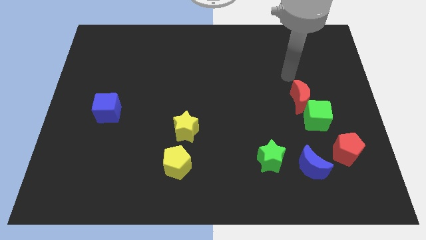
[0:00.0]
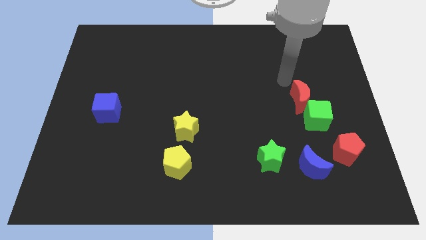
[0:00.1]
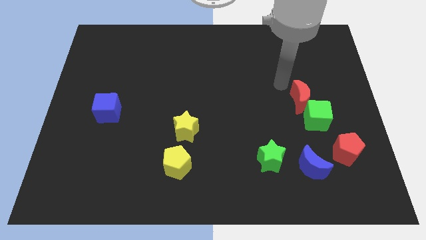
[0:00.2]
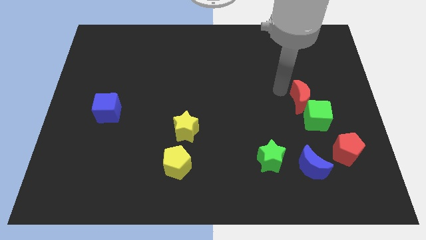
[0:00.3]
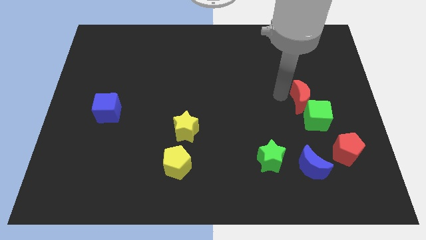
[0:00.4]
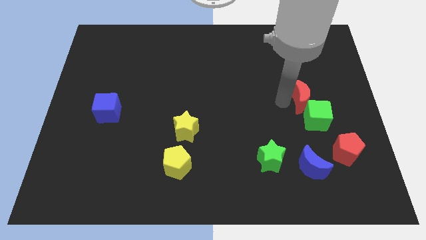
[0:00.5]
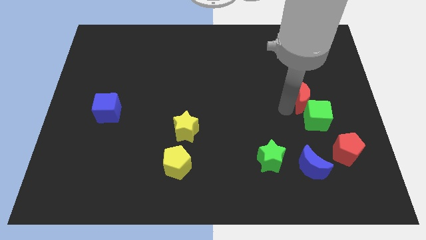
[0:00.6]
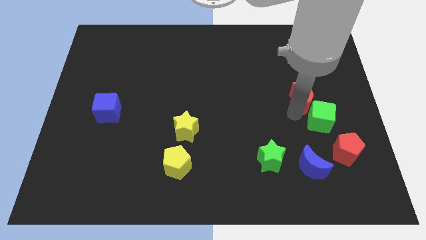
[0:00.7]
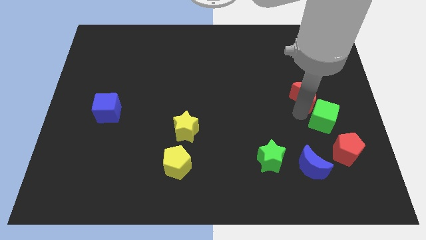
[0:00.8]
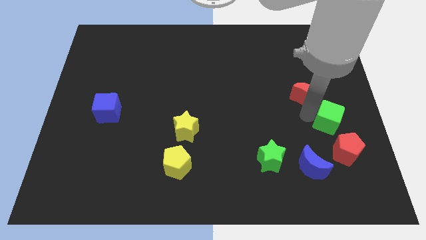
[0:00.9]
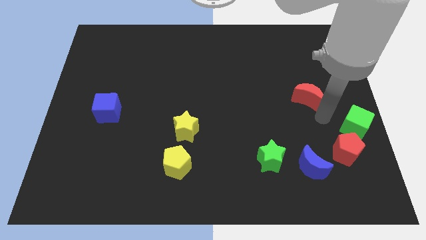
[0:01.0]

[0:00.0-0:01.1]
move the red moon away from the green cube

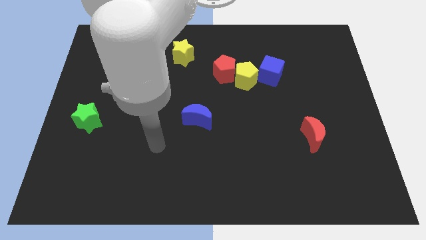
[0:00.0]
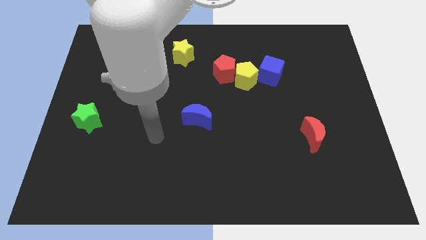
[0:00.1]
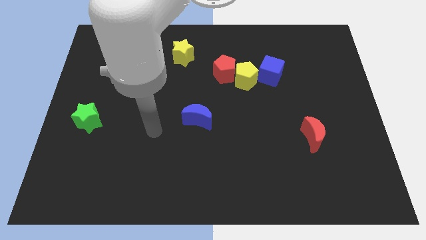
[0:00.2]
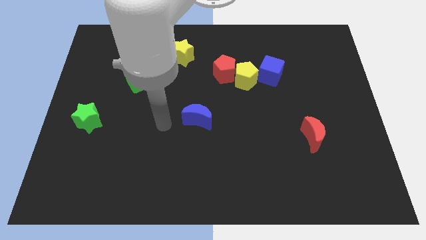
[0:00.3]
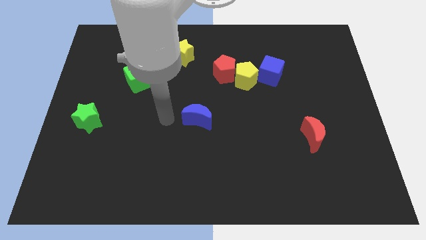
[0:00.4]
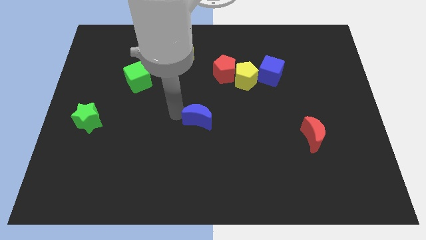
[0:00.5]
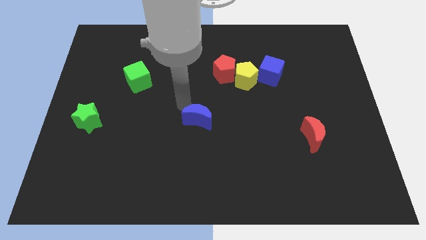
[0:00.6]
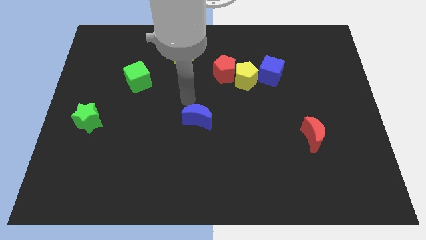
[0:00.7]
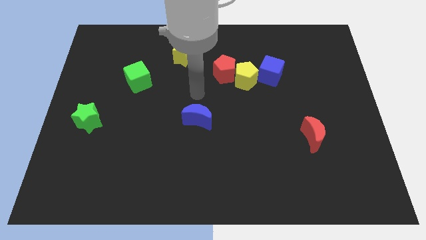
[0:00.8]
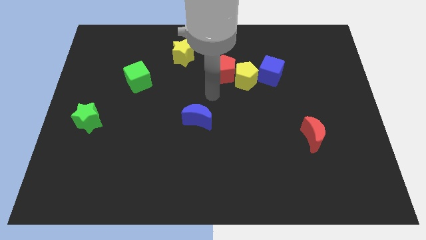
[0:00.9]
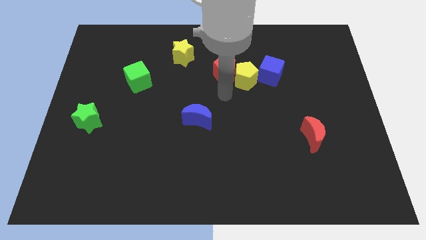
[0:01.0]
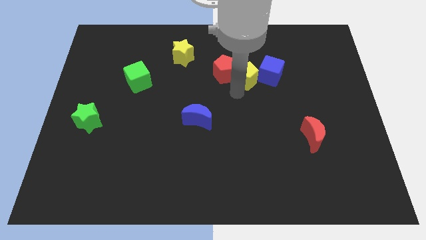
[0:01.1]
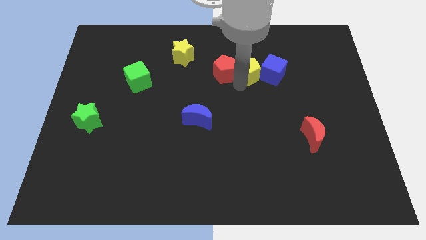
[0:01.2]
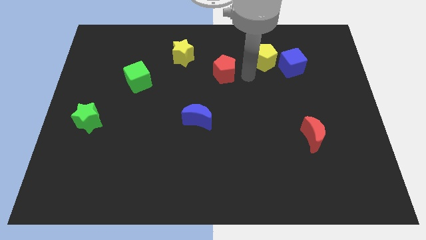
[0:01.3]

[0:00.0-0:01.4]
pull the red pentagon apart from the yellow pentagon

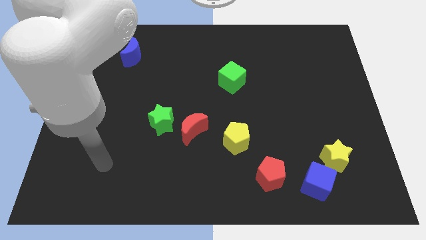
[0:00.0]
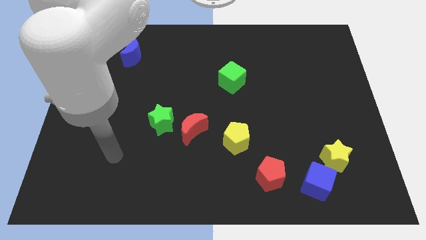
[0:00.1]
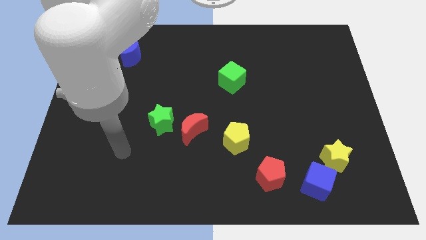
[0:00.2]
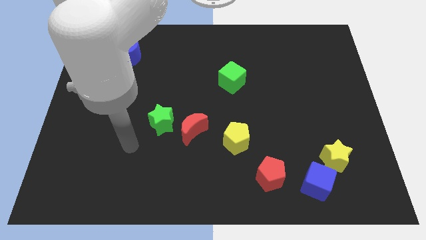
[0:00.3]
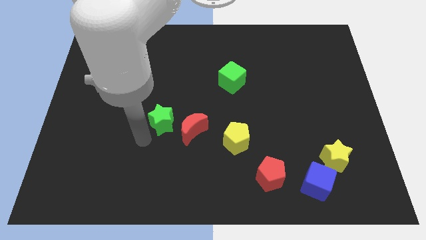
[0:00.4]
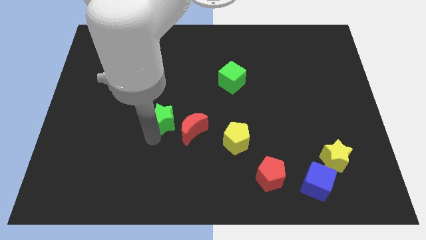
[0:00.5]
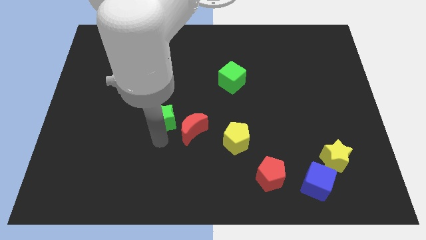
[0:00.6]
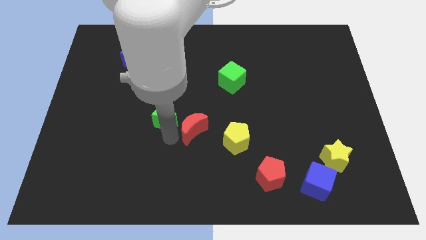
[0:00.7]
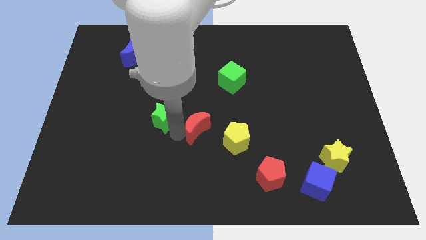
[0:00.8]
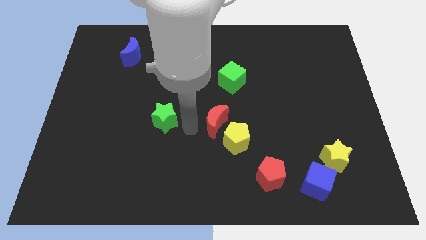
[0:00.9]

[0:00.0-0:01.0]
pull the green star apart from the red moon

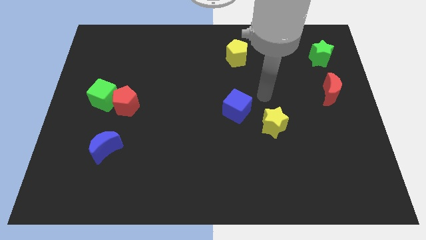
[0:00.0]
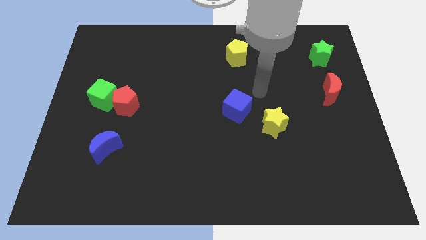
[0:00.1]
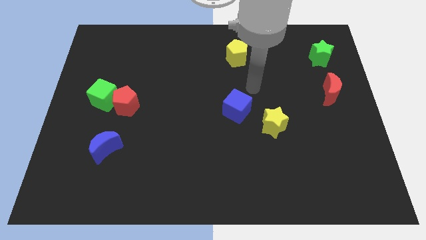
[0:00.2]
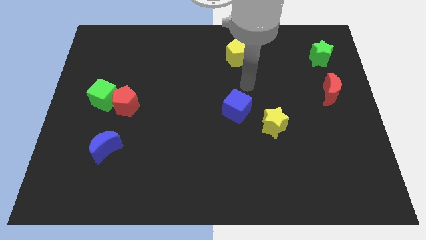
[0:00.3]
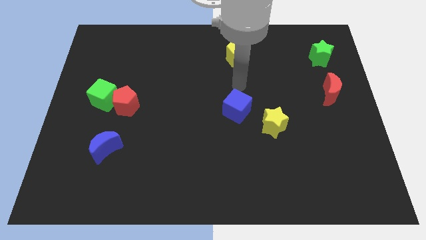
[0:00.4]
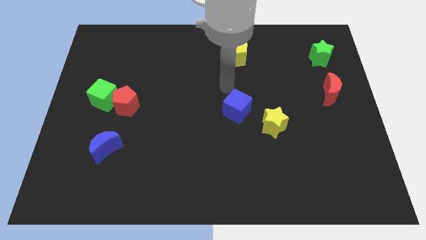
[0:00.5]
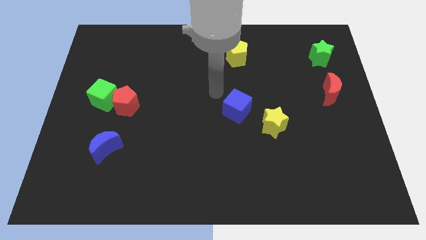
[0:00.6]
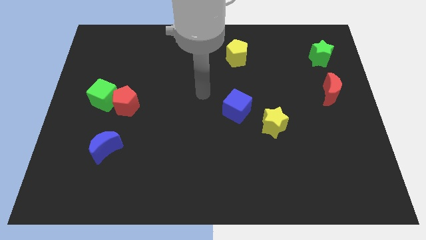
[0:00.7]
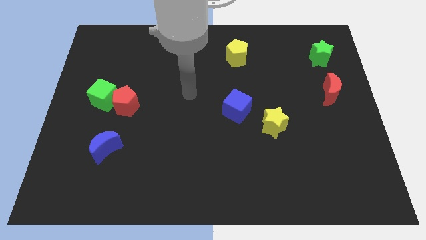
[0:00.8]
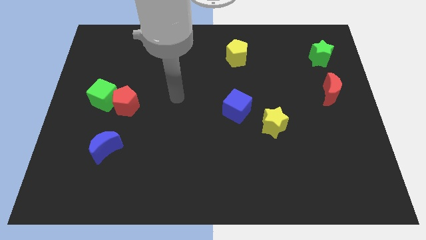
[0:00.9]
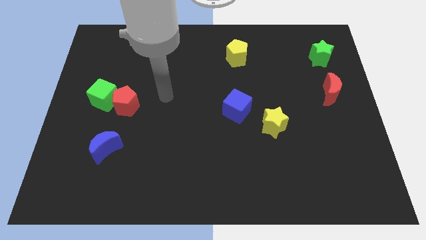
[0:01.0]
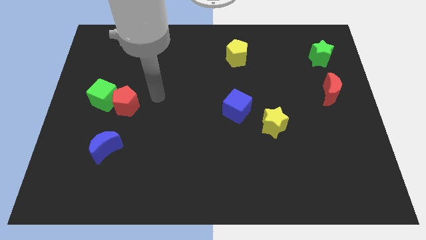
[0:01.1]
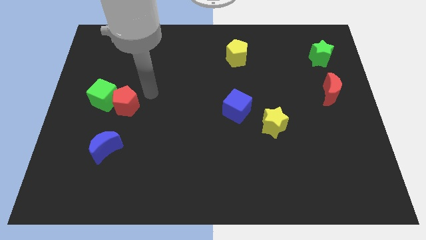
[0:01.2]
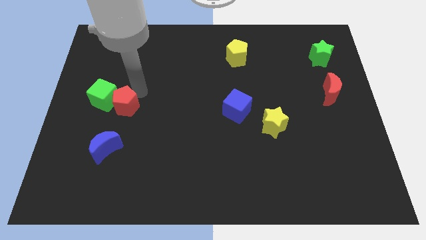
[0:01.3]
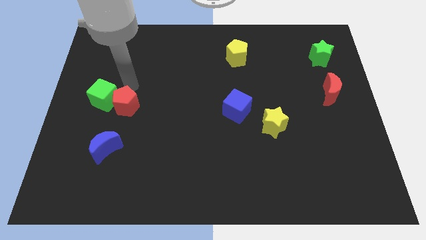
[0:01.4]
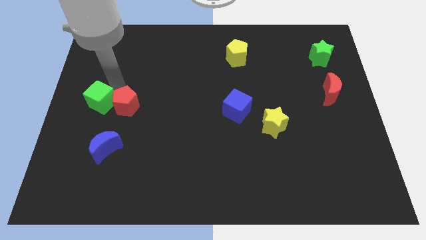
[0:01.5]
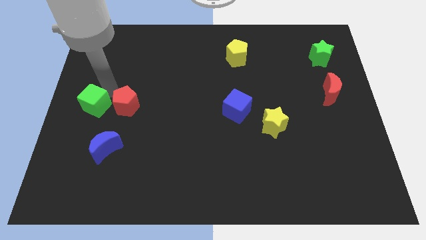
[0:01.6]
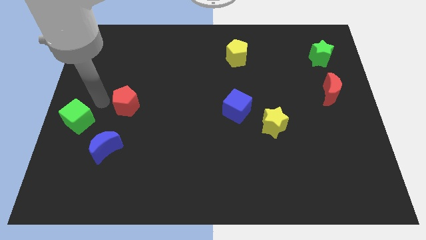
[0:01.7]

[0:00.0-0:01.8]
pull the red pentagon apart from the green cube

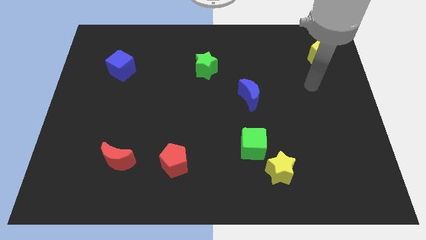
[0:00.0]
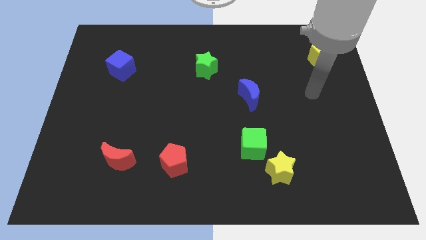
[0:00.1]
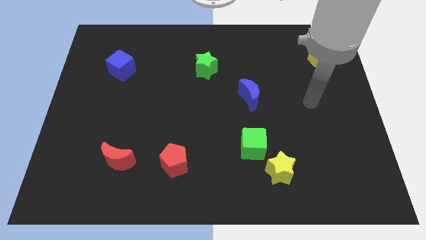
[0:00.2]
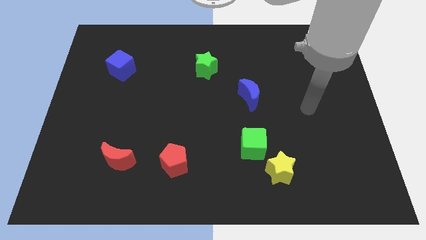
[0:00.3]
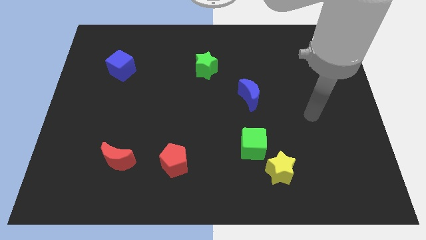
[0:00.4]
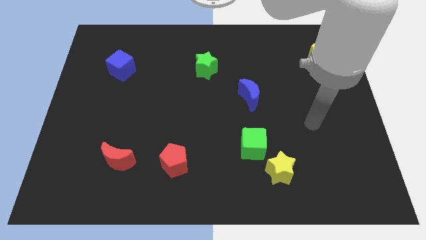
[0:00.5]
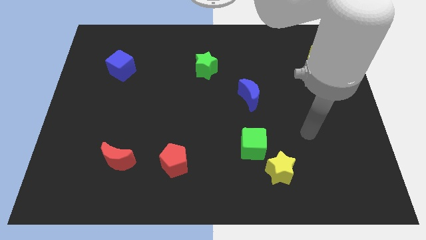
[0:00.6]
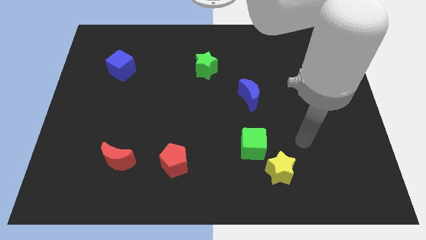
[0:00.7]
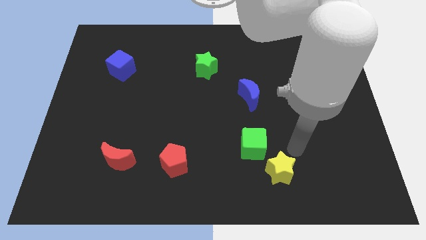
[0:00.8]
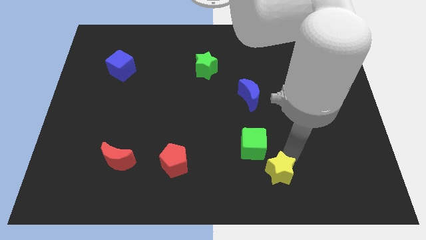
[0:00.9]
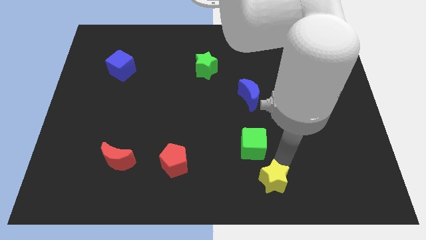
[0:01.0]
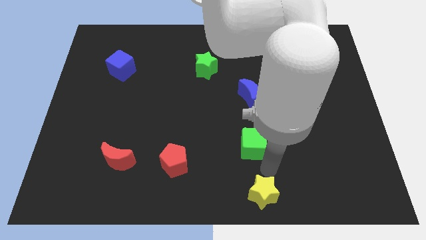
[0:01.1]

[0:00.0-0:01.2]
pull the green cube apart from the yellow star

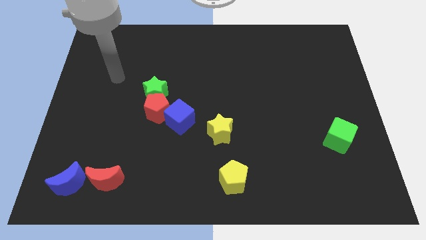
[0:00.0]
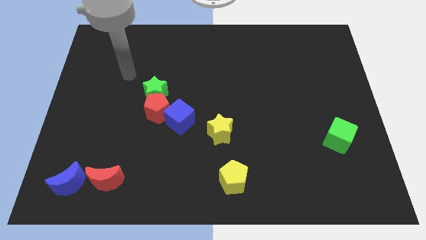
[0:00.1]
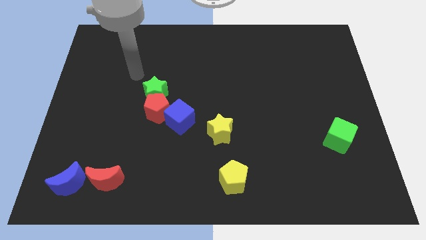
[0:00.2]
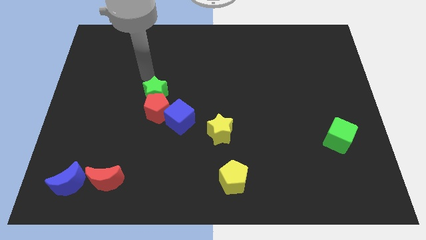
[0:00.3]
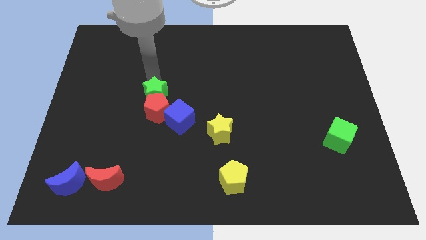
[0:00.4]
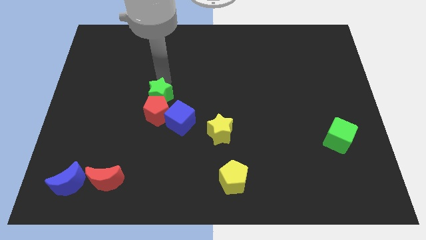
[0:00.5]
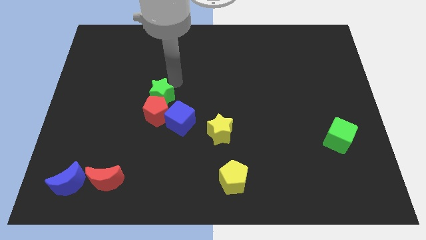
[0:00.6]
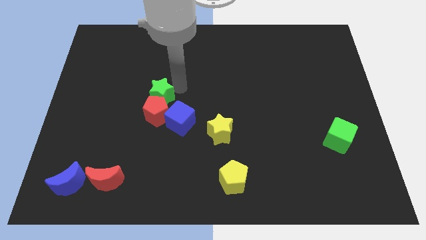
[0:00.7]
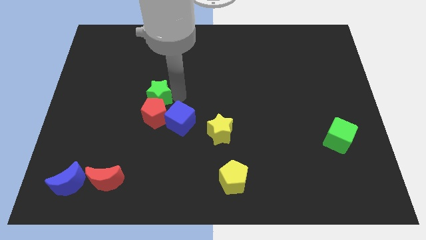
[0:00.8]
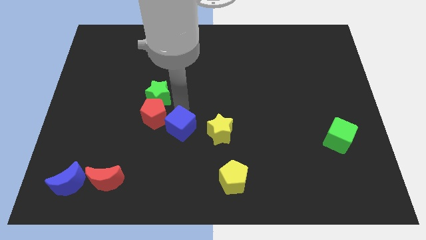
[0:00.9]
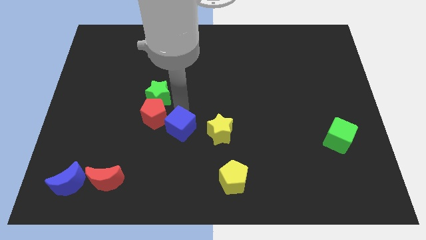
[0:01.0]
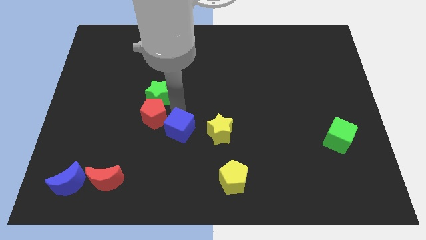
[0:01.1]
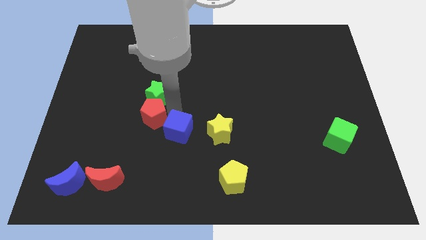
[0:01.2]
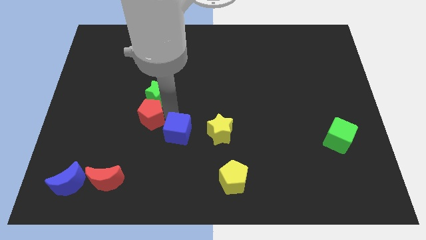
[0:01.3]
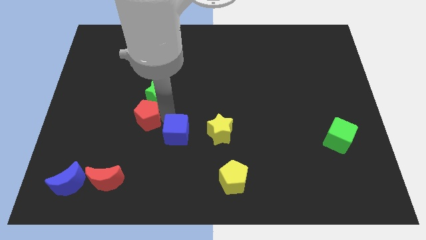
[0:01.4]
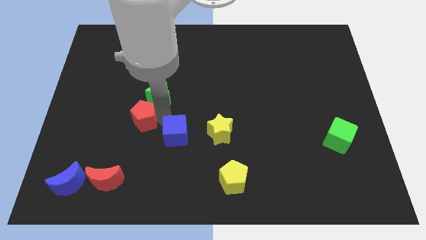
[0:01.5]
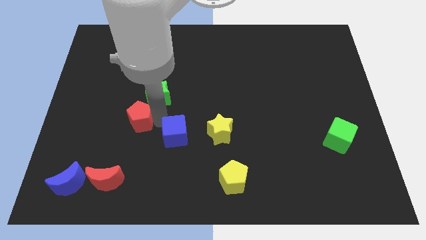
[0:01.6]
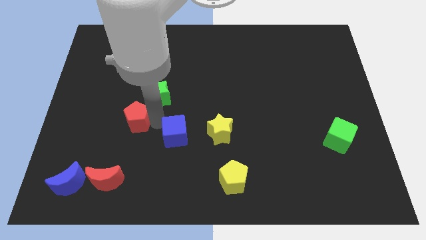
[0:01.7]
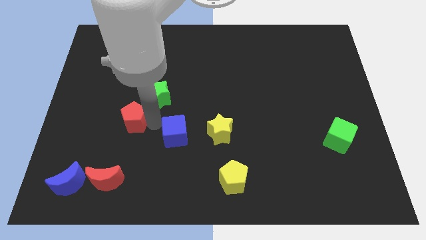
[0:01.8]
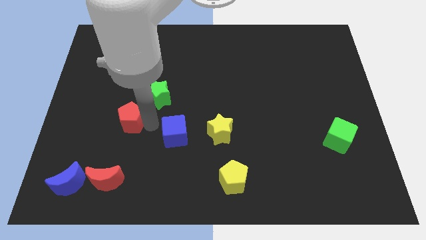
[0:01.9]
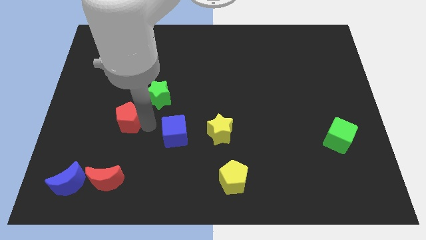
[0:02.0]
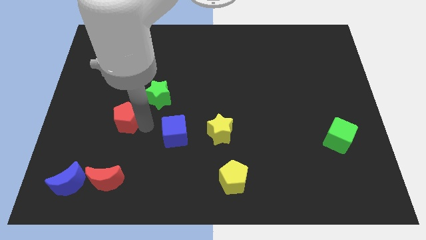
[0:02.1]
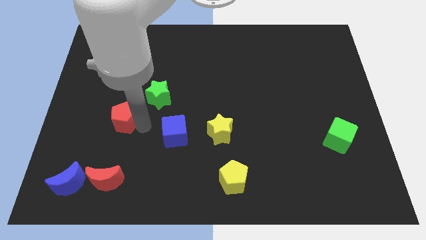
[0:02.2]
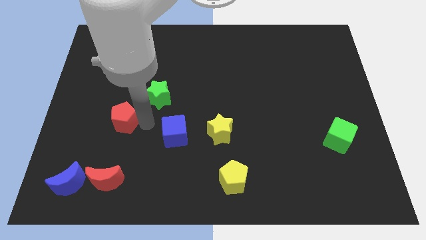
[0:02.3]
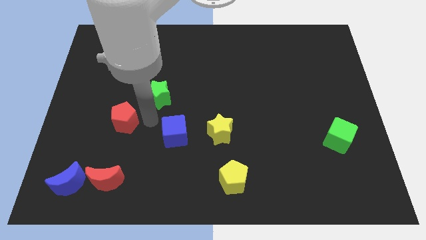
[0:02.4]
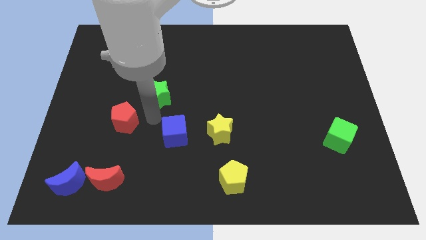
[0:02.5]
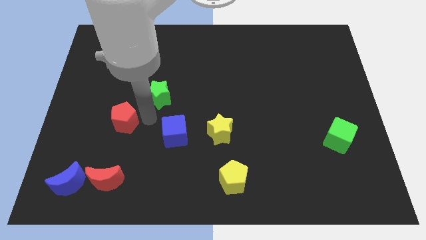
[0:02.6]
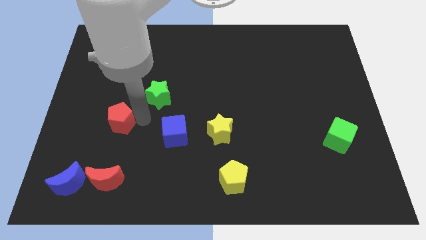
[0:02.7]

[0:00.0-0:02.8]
move the red pentagon away from the green star and blue cube
